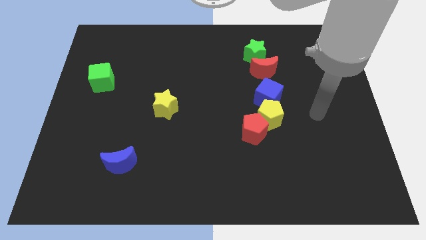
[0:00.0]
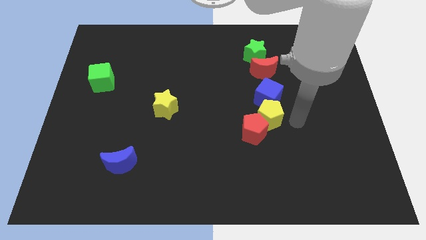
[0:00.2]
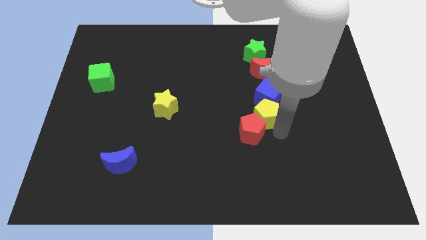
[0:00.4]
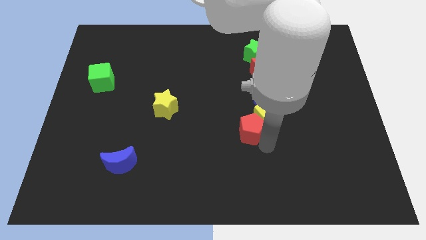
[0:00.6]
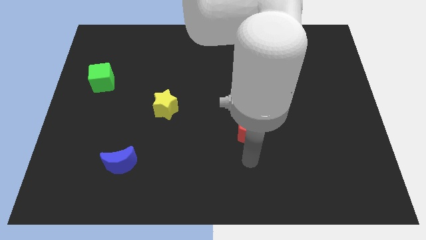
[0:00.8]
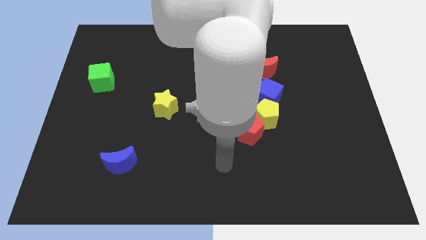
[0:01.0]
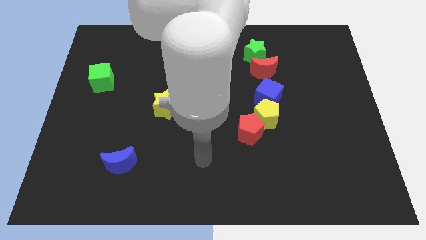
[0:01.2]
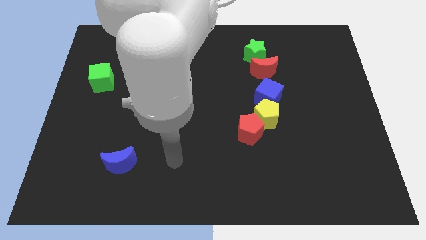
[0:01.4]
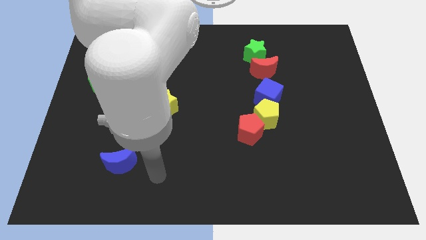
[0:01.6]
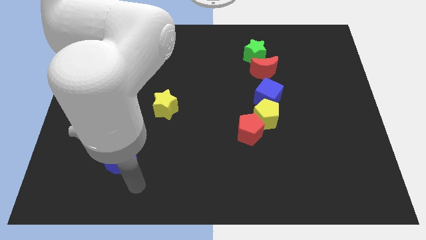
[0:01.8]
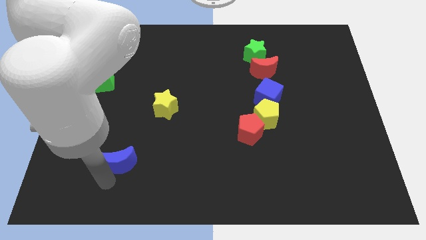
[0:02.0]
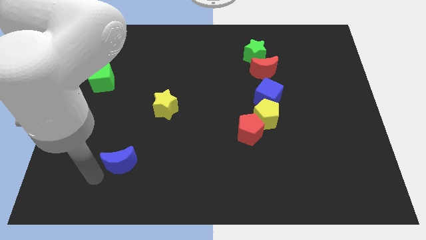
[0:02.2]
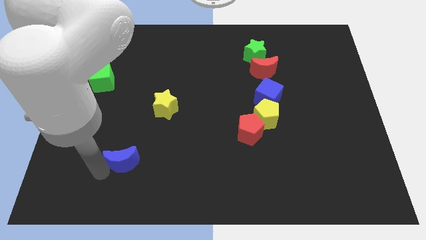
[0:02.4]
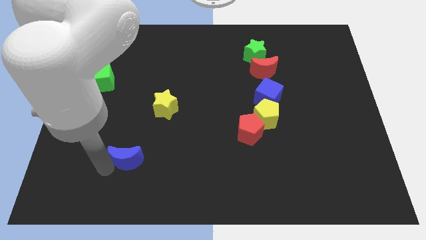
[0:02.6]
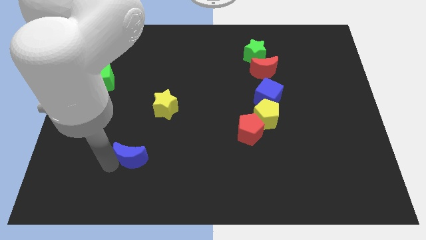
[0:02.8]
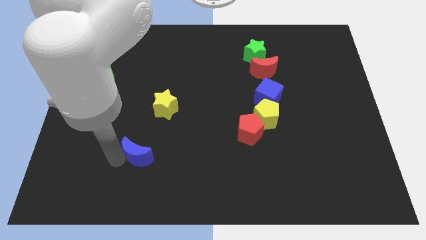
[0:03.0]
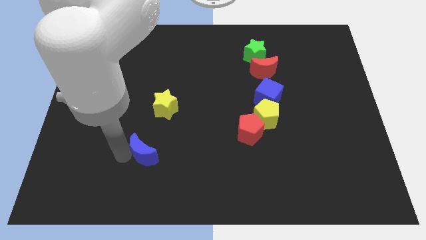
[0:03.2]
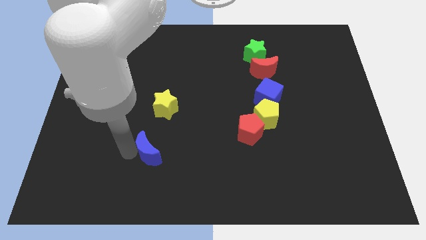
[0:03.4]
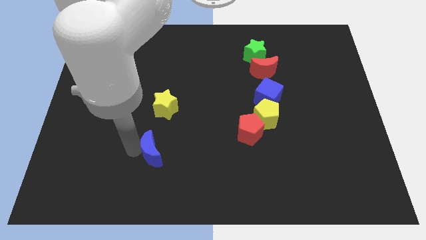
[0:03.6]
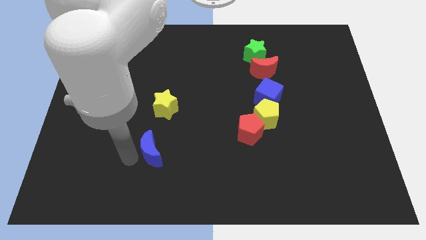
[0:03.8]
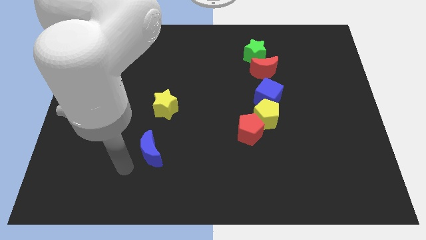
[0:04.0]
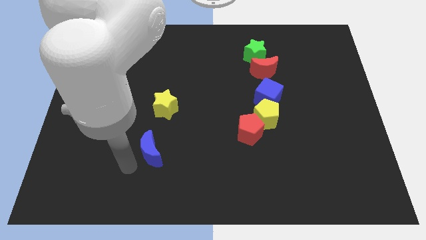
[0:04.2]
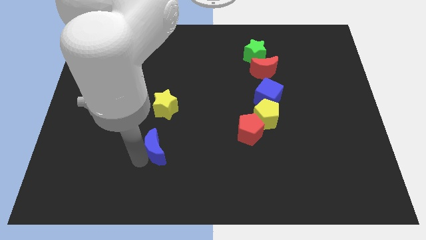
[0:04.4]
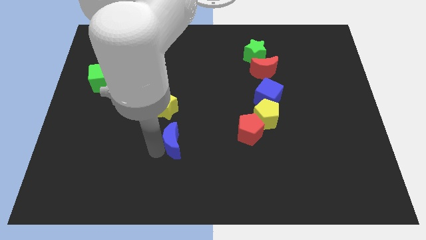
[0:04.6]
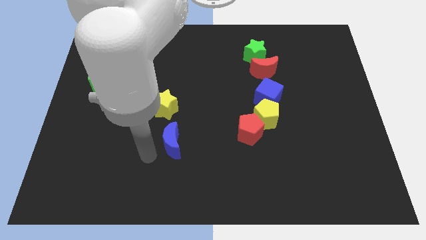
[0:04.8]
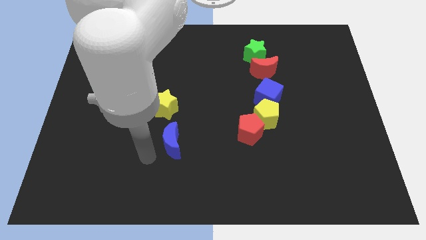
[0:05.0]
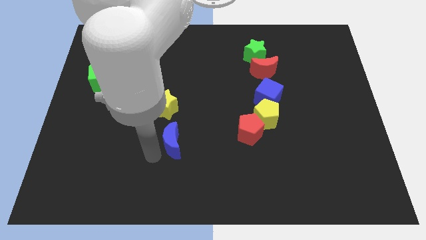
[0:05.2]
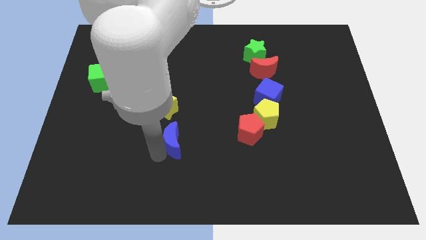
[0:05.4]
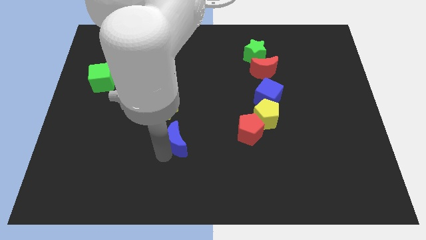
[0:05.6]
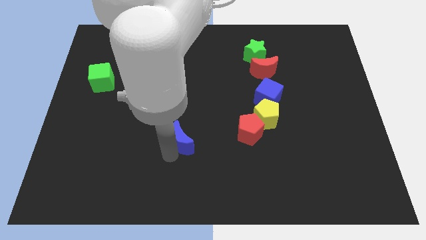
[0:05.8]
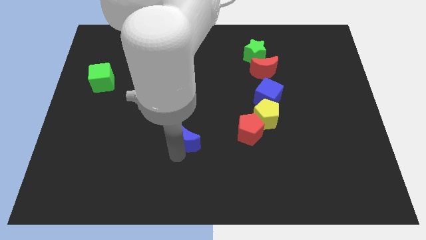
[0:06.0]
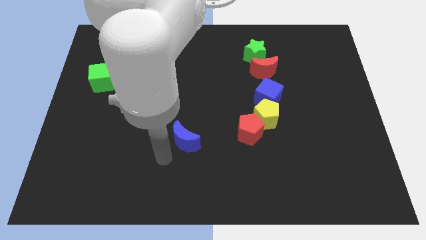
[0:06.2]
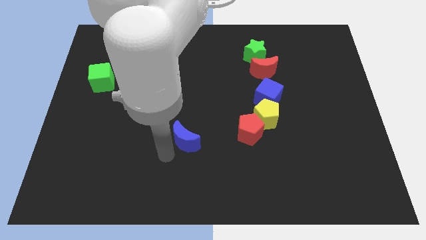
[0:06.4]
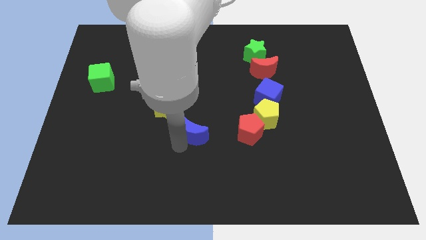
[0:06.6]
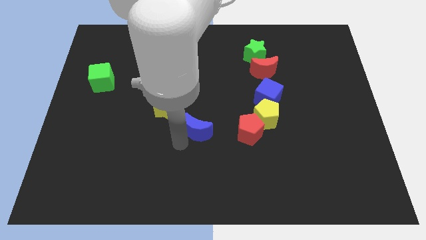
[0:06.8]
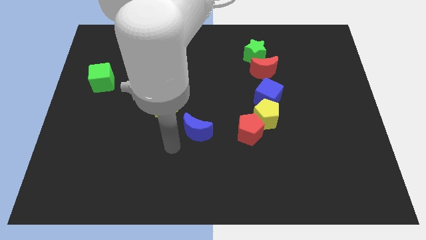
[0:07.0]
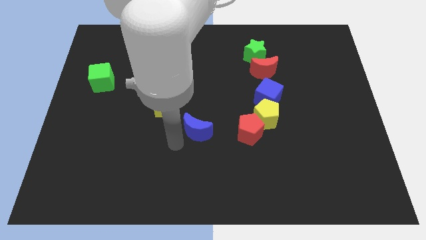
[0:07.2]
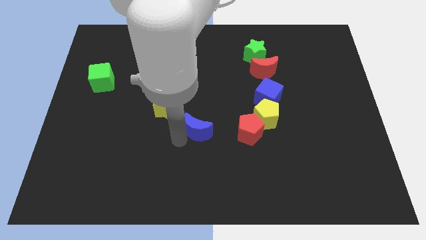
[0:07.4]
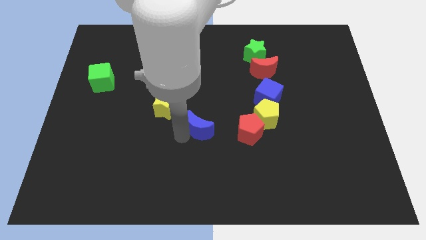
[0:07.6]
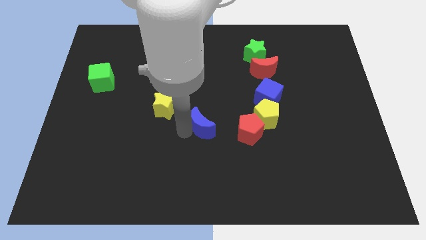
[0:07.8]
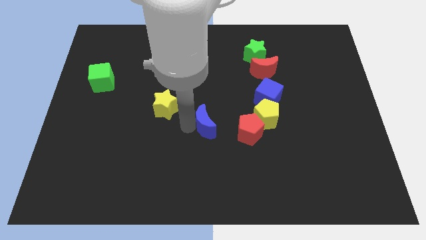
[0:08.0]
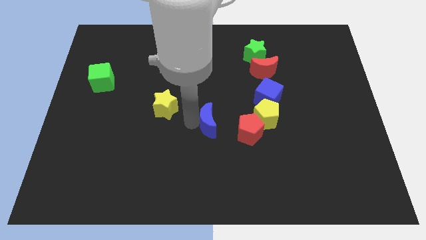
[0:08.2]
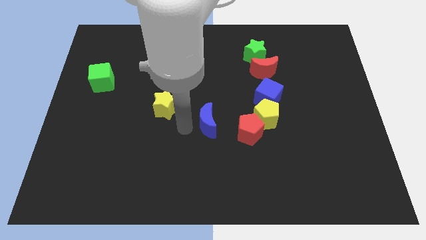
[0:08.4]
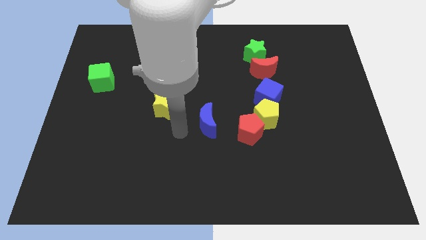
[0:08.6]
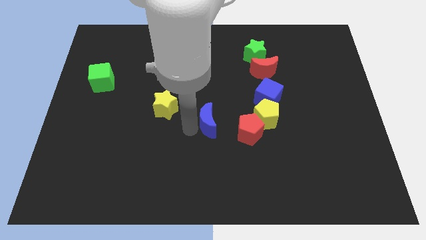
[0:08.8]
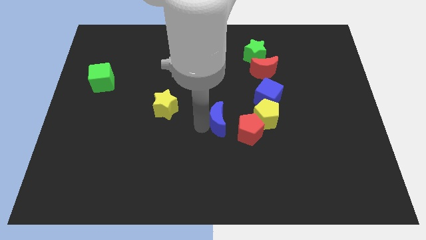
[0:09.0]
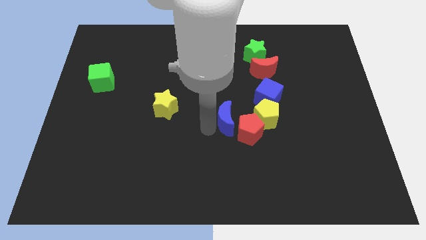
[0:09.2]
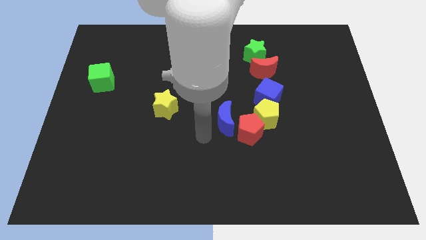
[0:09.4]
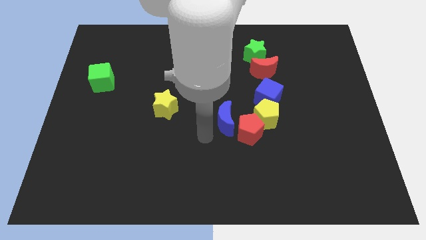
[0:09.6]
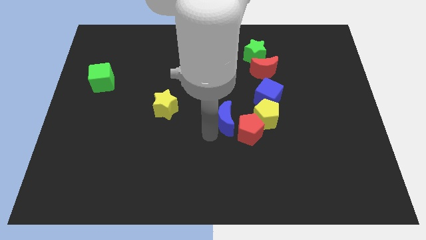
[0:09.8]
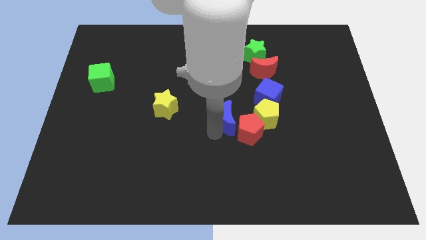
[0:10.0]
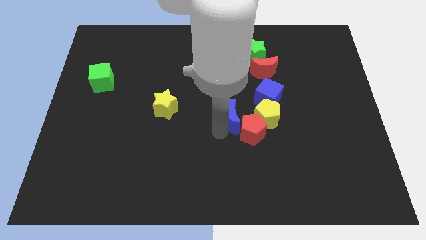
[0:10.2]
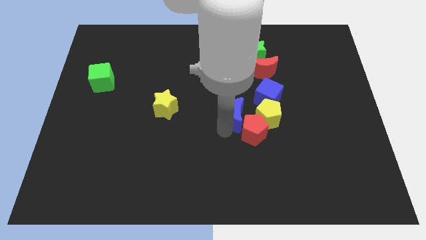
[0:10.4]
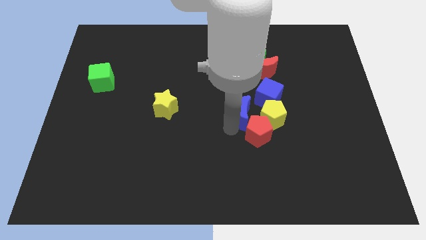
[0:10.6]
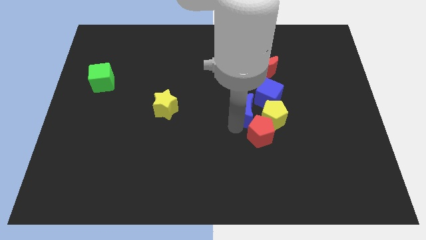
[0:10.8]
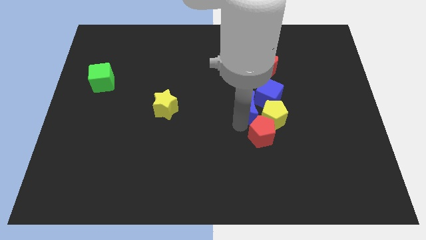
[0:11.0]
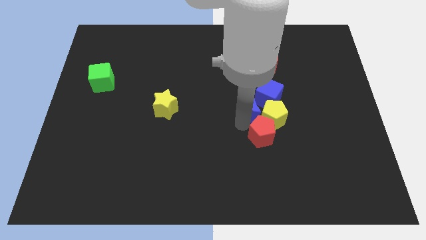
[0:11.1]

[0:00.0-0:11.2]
slide the blue moon to the blue cube
